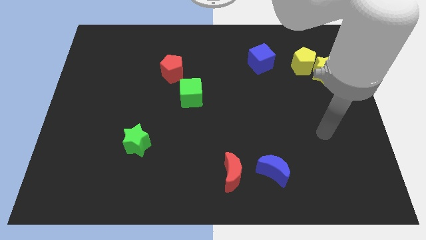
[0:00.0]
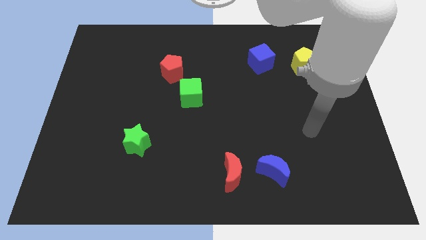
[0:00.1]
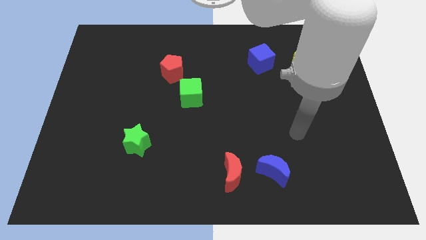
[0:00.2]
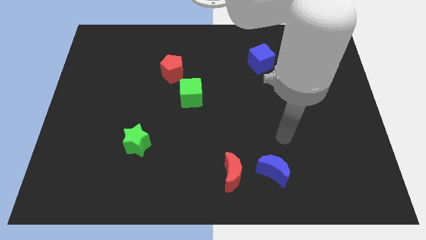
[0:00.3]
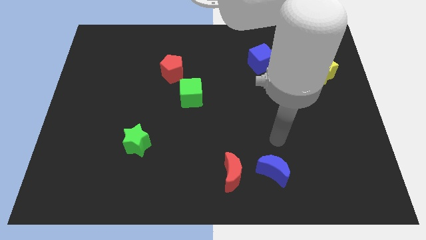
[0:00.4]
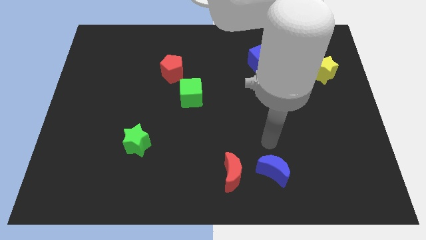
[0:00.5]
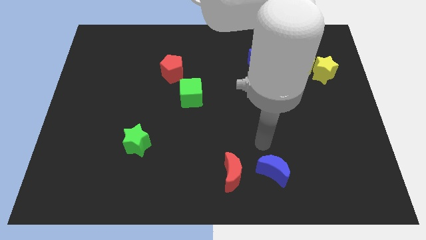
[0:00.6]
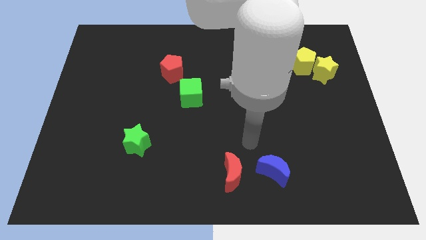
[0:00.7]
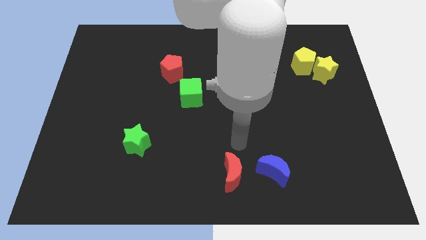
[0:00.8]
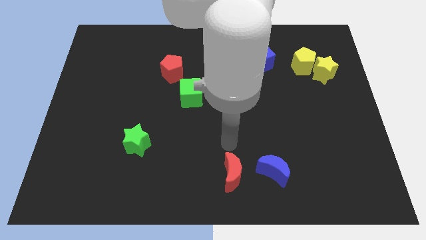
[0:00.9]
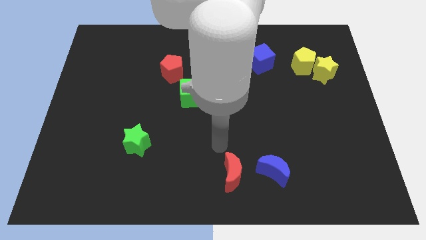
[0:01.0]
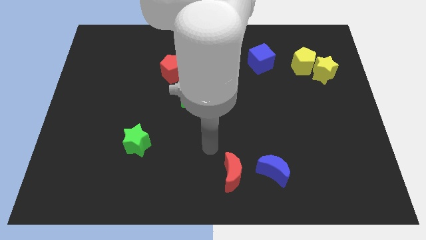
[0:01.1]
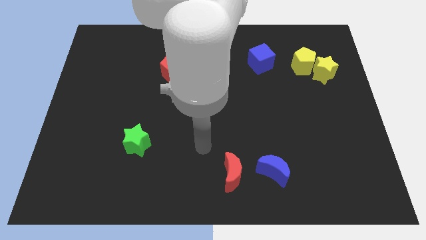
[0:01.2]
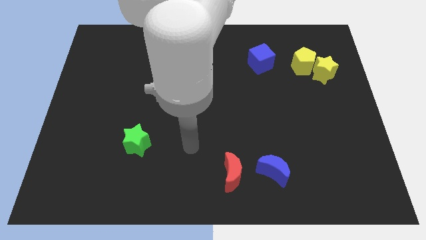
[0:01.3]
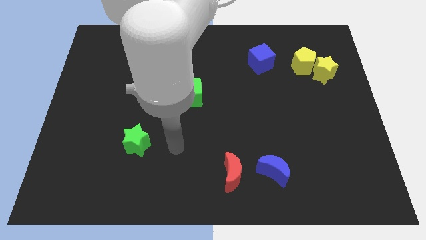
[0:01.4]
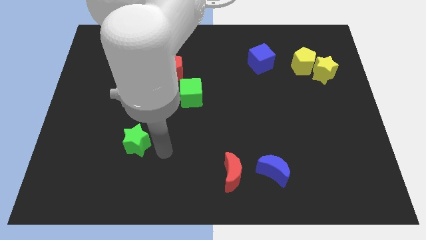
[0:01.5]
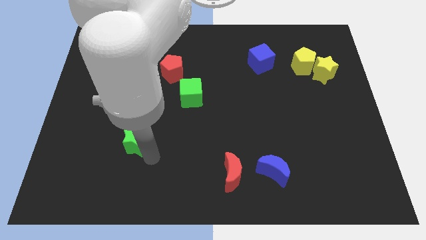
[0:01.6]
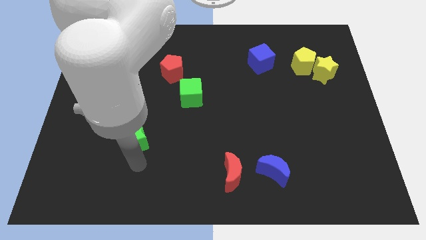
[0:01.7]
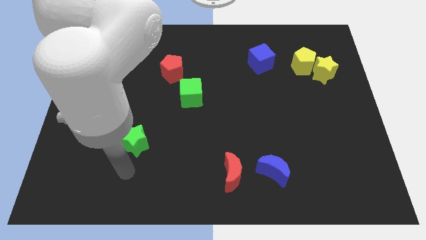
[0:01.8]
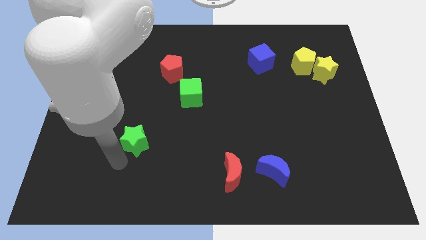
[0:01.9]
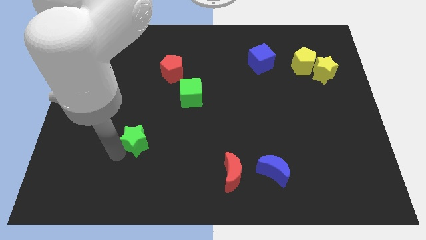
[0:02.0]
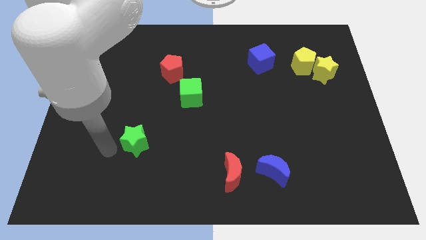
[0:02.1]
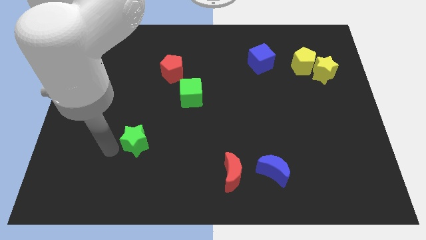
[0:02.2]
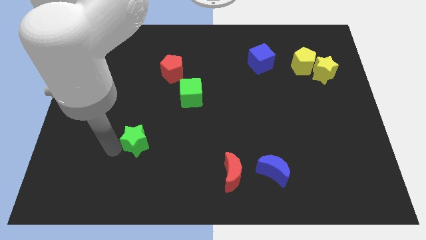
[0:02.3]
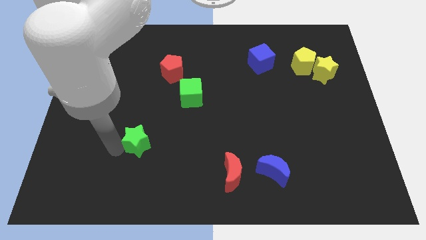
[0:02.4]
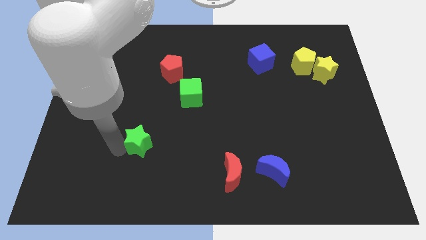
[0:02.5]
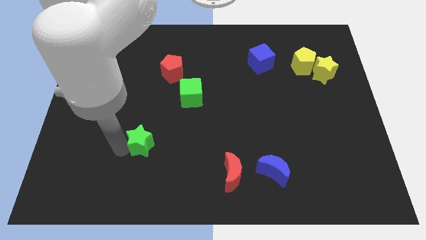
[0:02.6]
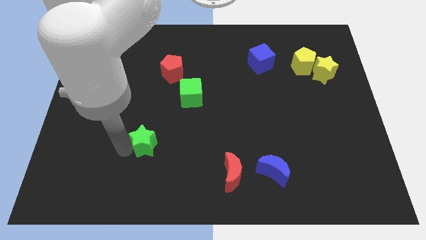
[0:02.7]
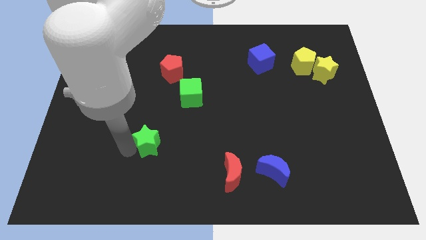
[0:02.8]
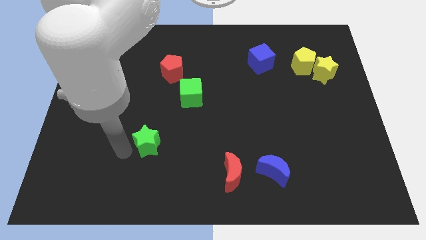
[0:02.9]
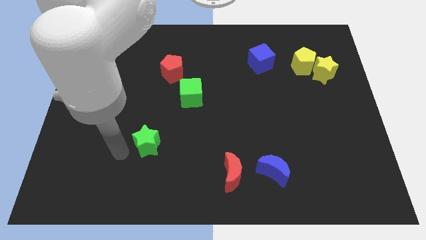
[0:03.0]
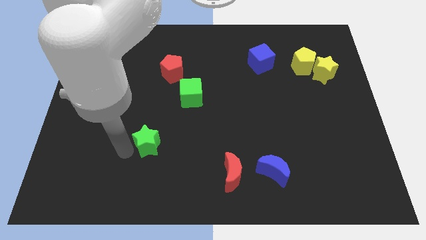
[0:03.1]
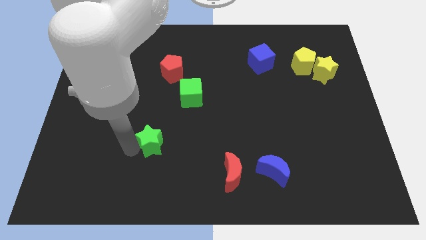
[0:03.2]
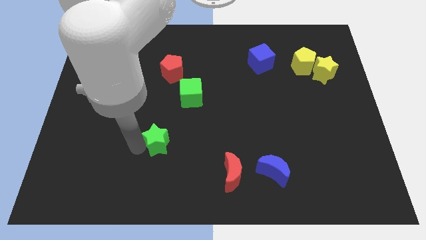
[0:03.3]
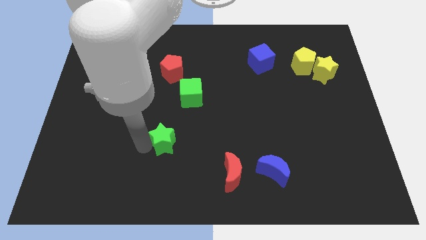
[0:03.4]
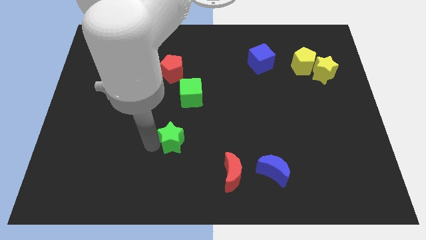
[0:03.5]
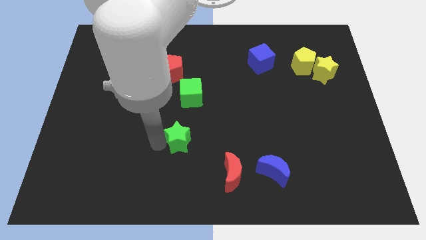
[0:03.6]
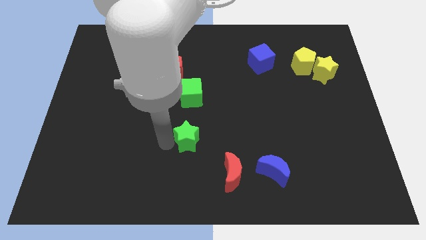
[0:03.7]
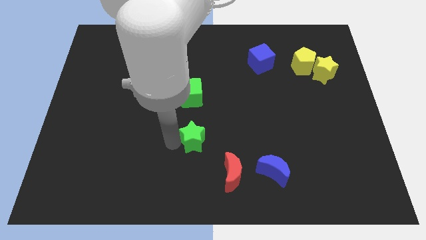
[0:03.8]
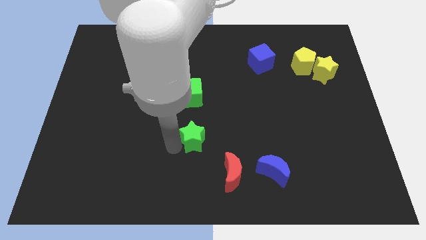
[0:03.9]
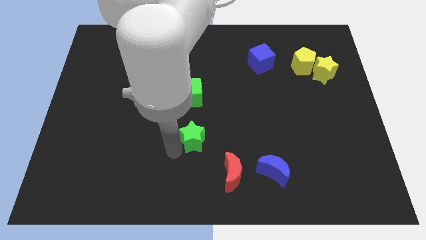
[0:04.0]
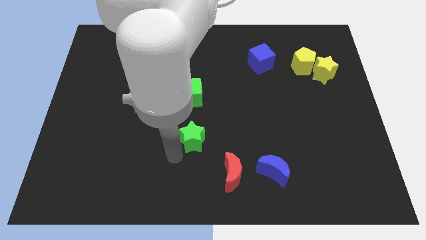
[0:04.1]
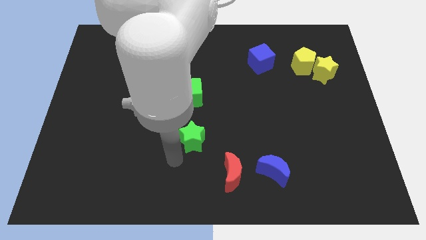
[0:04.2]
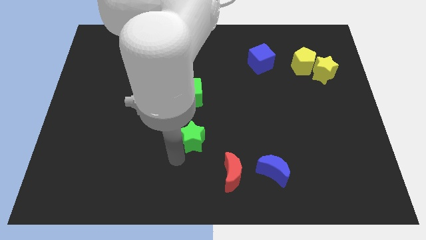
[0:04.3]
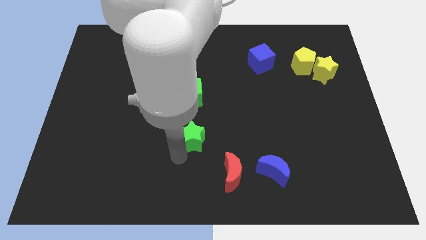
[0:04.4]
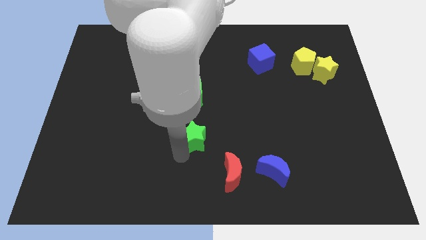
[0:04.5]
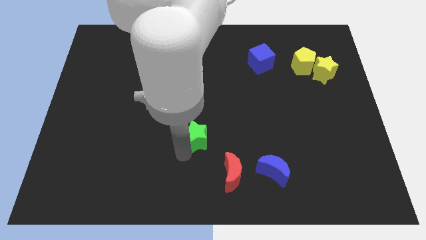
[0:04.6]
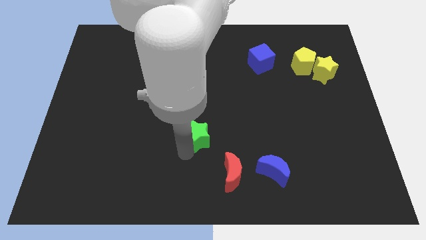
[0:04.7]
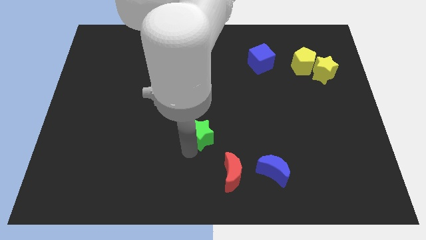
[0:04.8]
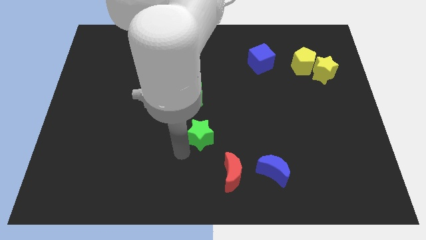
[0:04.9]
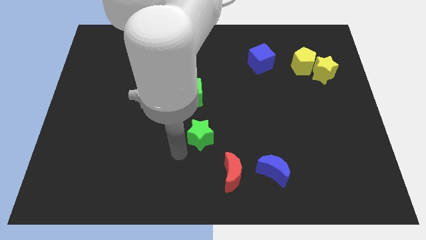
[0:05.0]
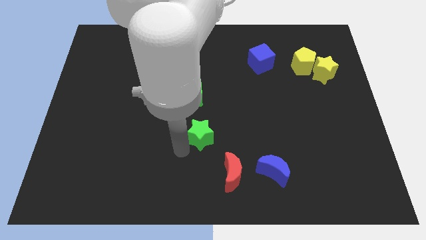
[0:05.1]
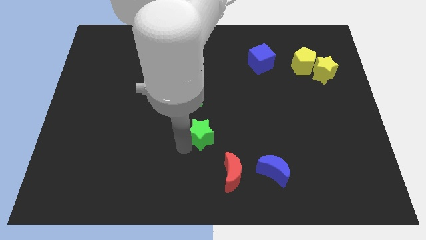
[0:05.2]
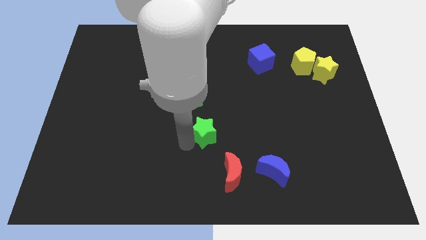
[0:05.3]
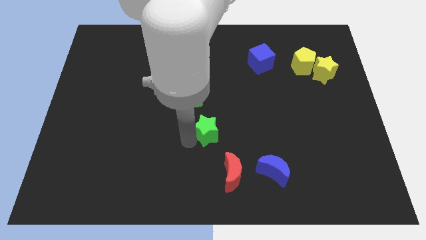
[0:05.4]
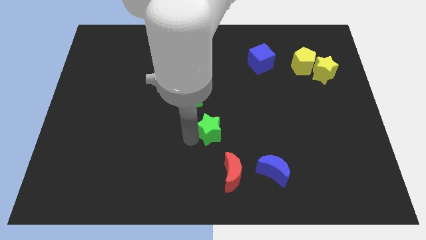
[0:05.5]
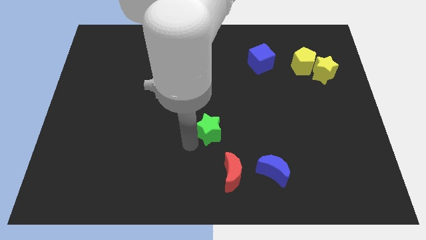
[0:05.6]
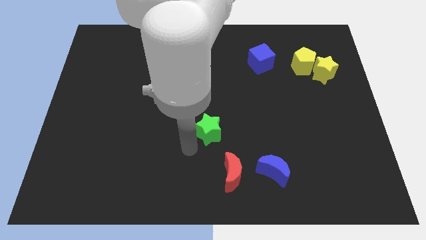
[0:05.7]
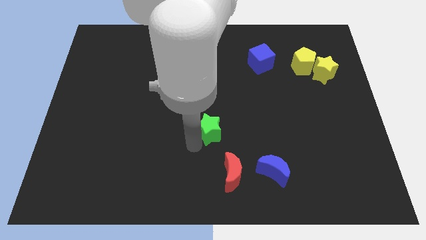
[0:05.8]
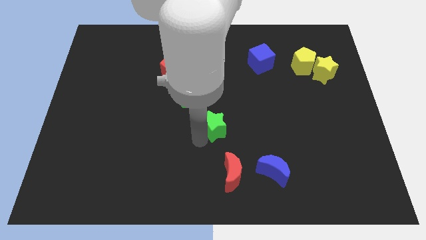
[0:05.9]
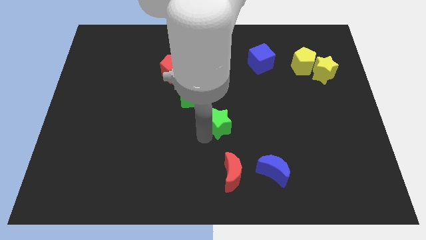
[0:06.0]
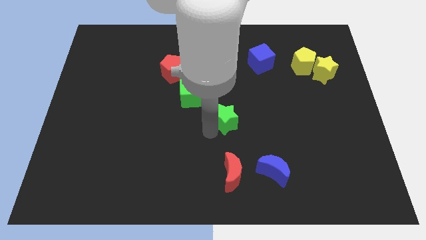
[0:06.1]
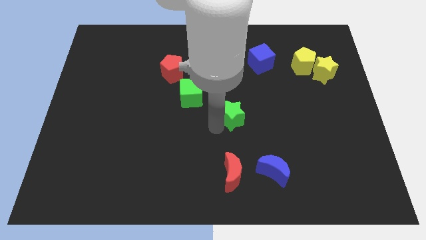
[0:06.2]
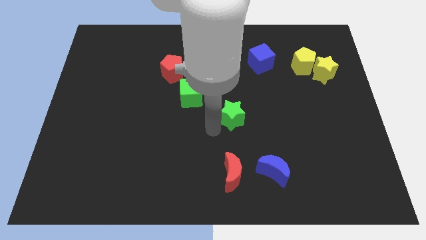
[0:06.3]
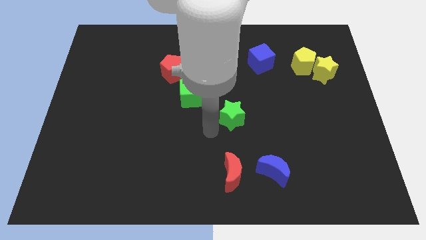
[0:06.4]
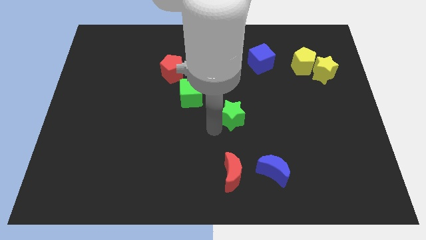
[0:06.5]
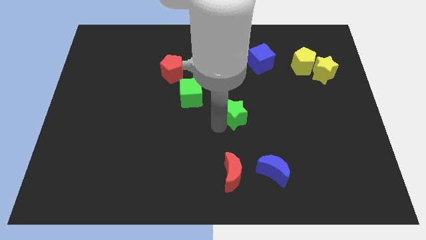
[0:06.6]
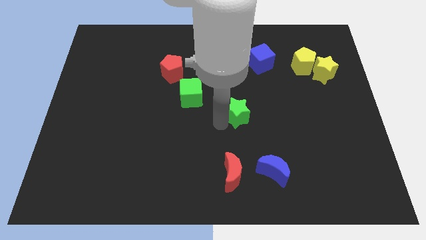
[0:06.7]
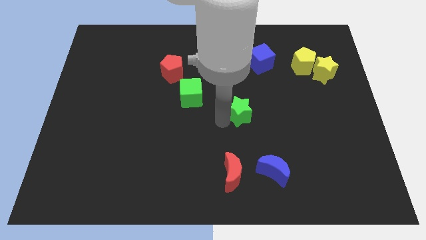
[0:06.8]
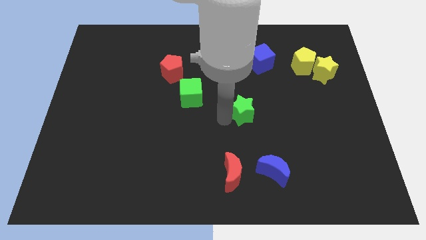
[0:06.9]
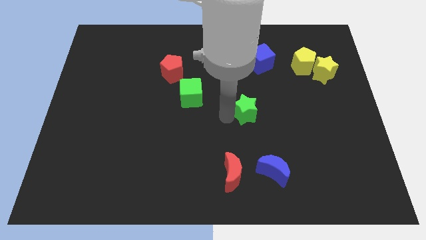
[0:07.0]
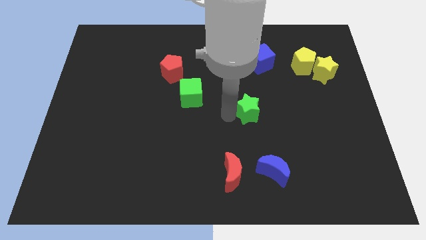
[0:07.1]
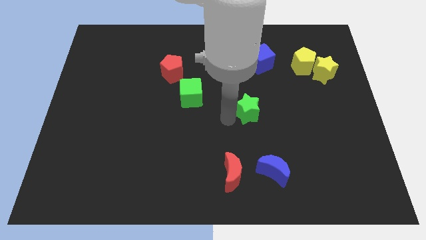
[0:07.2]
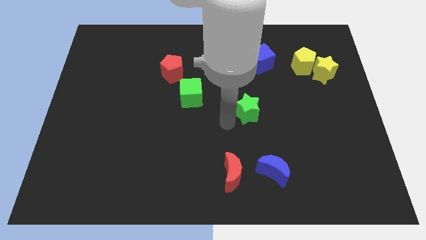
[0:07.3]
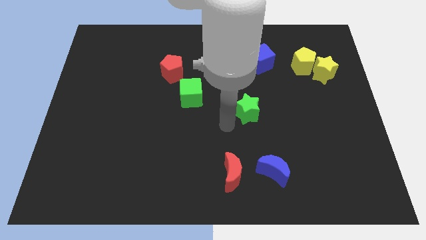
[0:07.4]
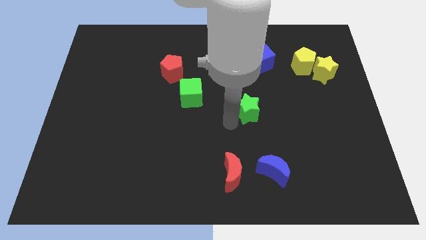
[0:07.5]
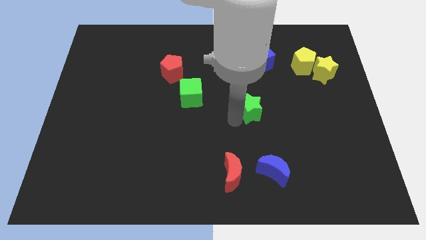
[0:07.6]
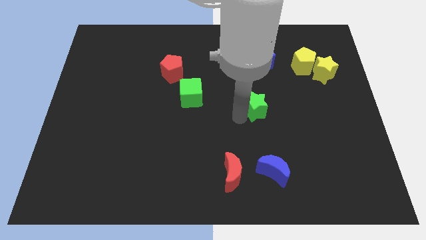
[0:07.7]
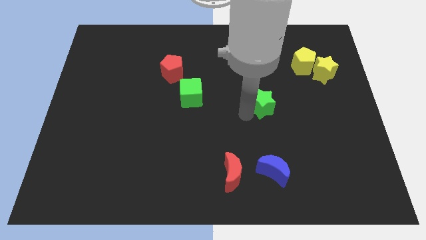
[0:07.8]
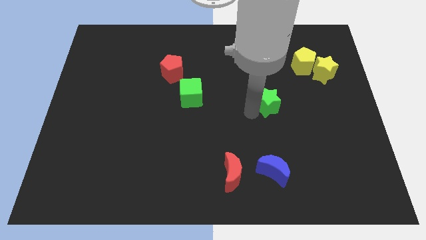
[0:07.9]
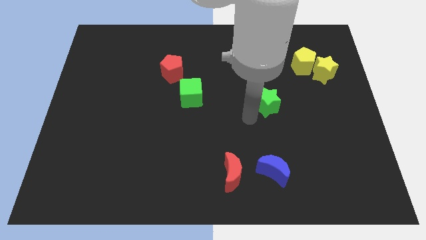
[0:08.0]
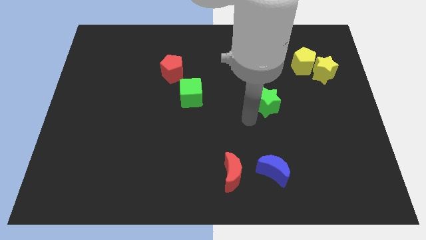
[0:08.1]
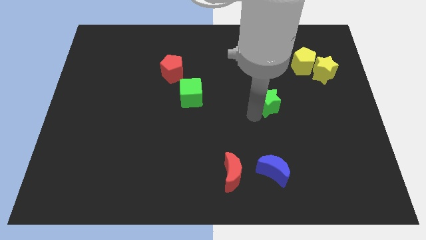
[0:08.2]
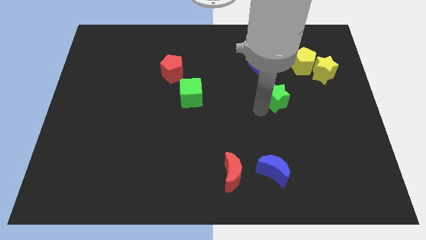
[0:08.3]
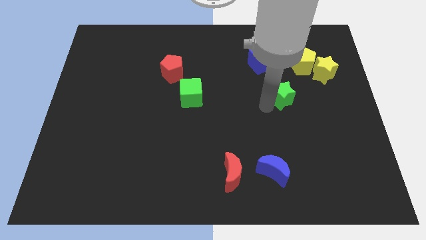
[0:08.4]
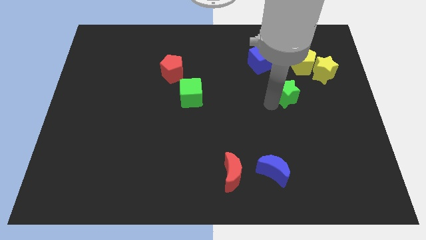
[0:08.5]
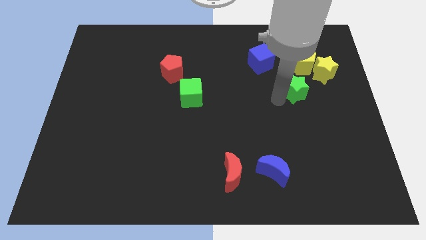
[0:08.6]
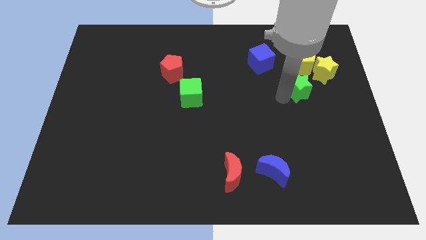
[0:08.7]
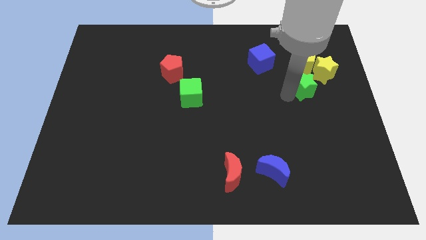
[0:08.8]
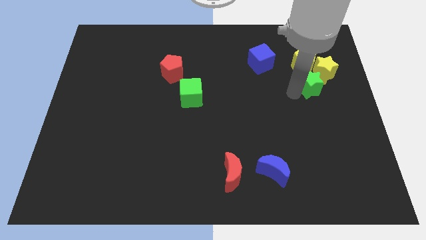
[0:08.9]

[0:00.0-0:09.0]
move the green star next to the yellow star
